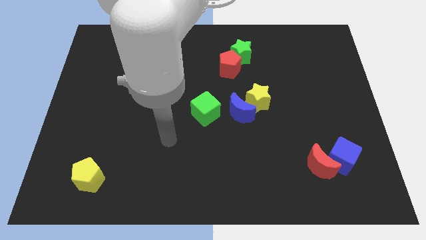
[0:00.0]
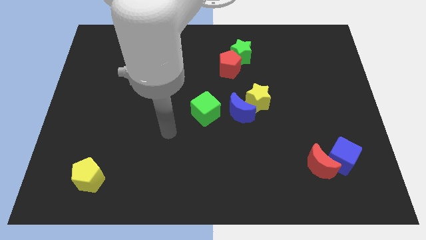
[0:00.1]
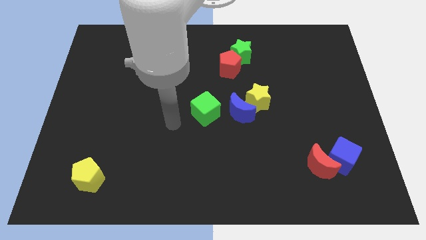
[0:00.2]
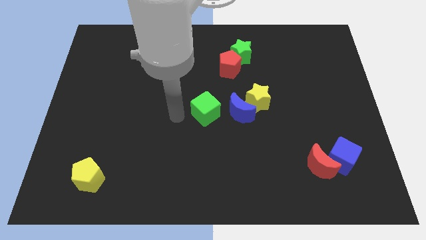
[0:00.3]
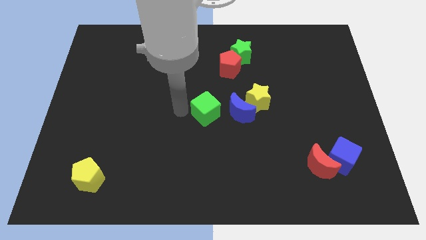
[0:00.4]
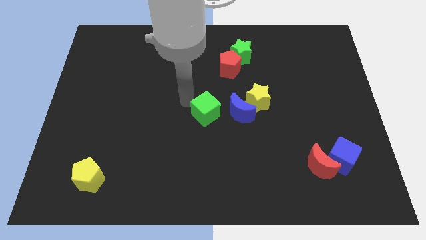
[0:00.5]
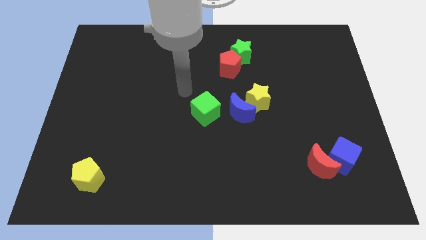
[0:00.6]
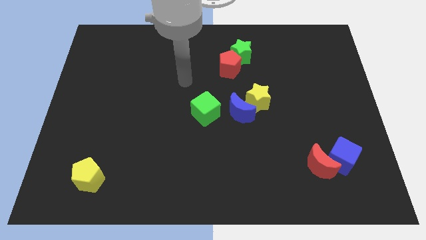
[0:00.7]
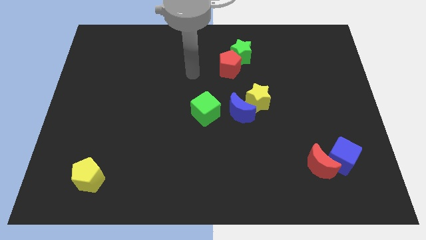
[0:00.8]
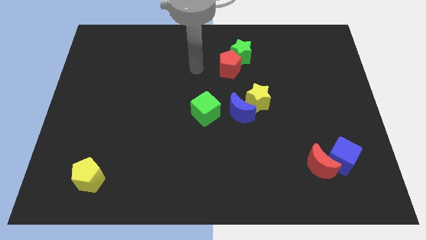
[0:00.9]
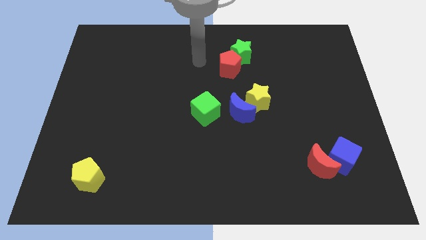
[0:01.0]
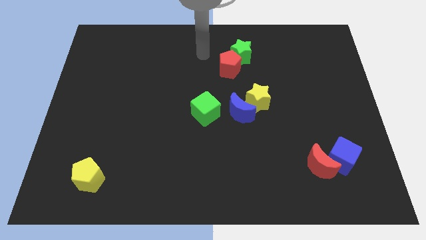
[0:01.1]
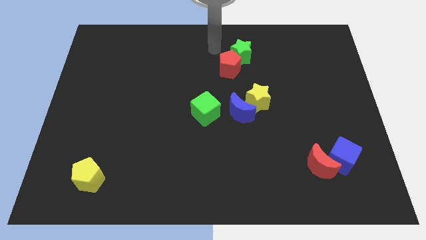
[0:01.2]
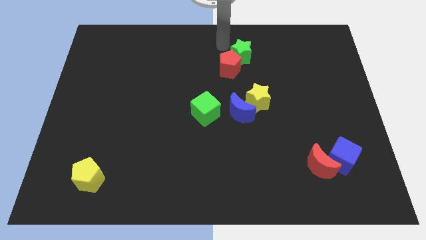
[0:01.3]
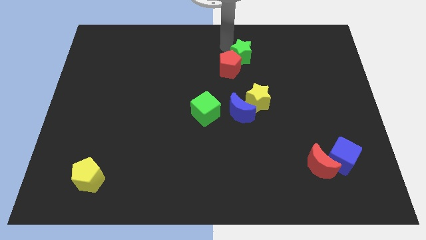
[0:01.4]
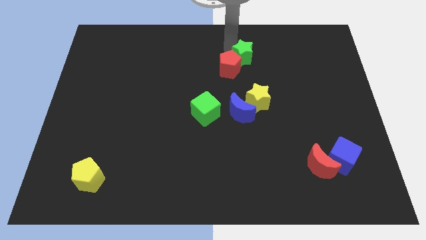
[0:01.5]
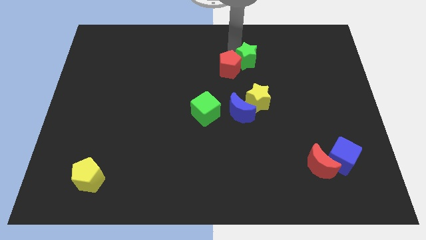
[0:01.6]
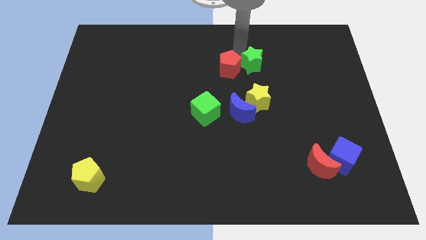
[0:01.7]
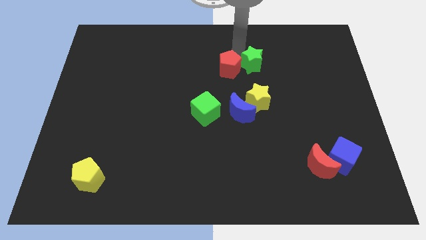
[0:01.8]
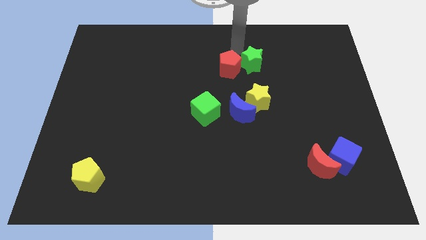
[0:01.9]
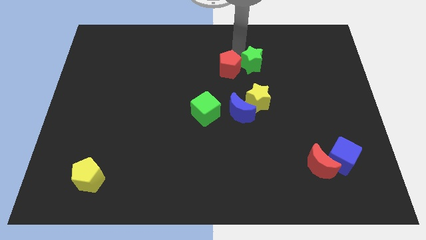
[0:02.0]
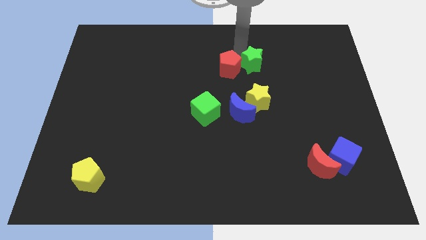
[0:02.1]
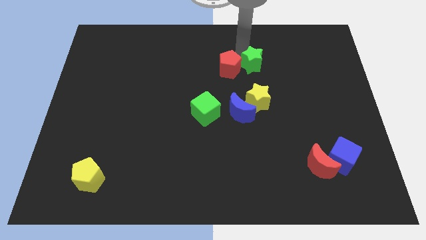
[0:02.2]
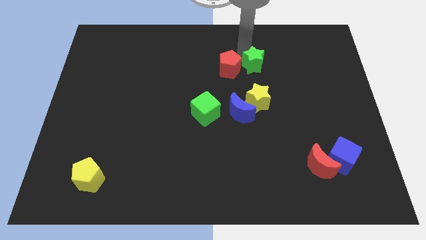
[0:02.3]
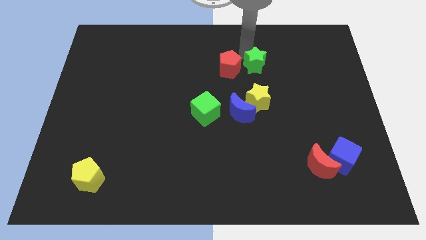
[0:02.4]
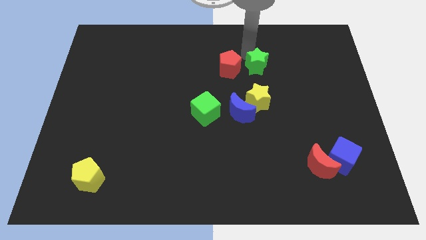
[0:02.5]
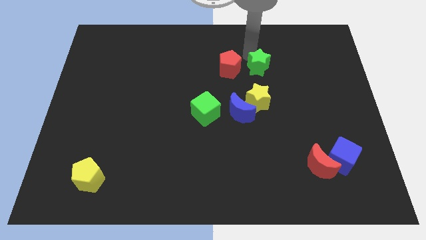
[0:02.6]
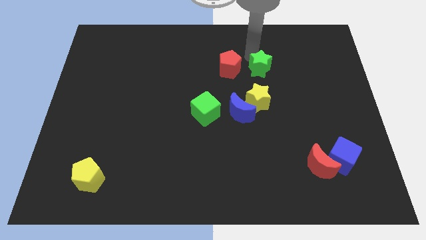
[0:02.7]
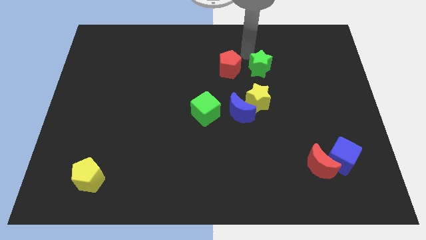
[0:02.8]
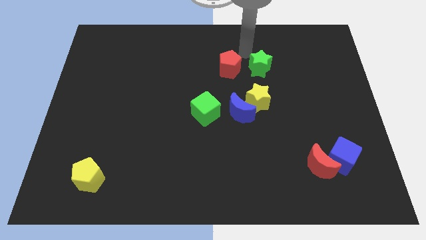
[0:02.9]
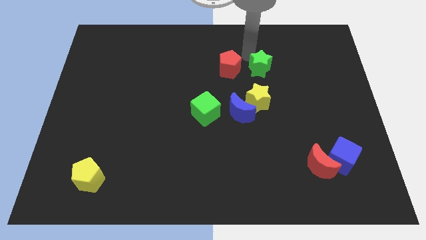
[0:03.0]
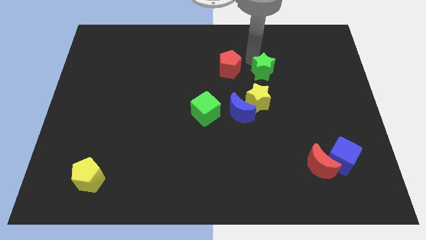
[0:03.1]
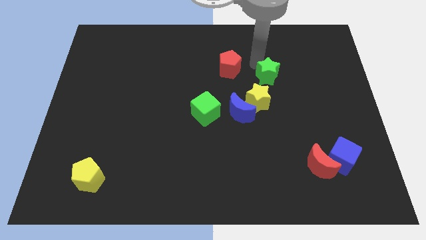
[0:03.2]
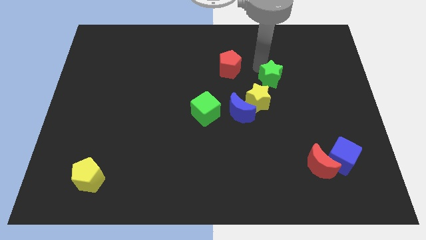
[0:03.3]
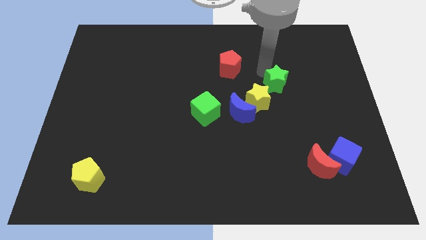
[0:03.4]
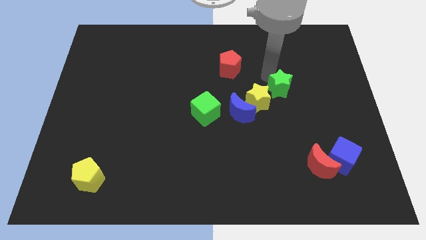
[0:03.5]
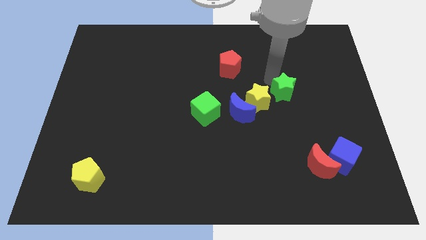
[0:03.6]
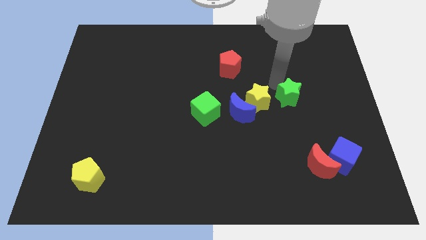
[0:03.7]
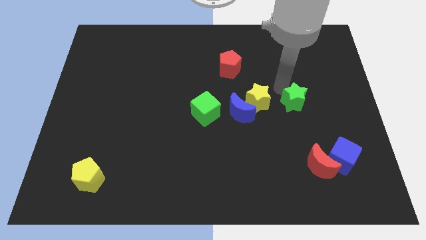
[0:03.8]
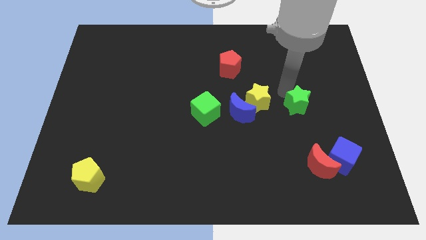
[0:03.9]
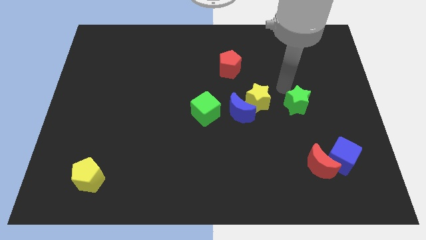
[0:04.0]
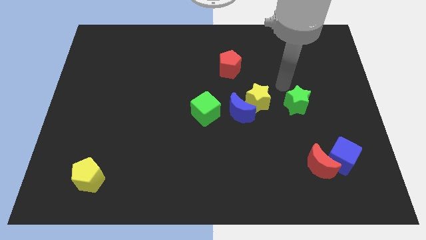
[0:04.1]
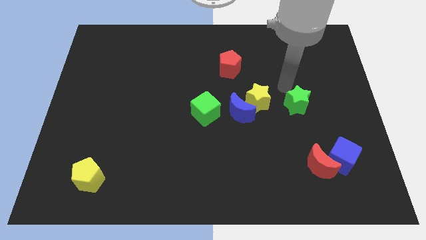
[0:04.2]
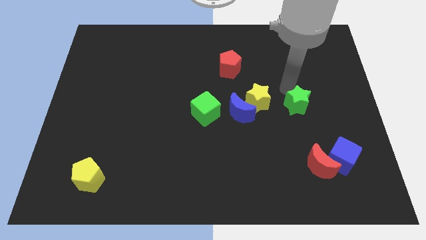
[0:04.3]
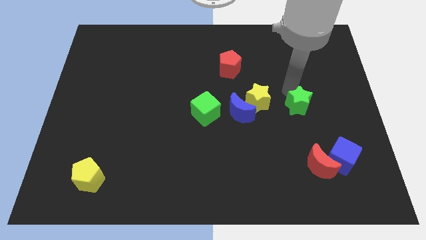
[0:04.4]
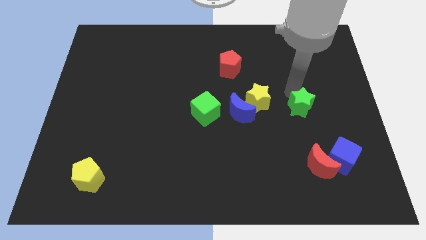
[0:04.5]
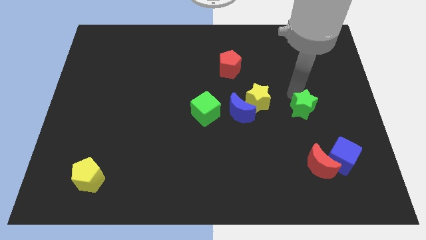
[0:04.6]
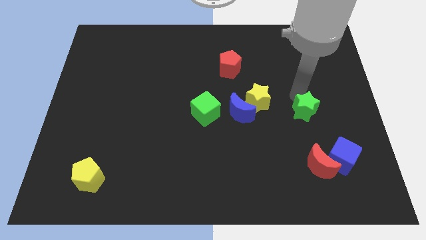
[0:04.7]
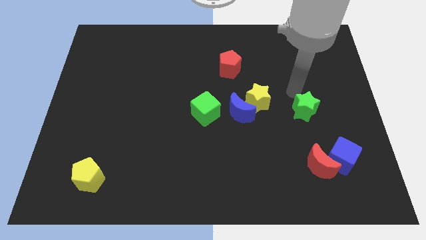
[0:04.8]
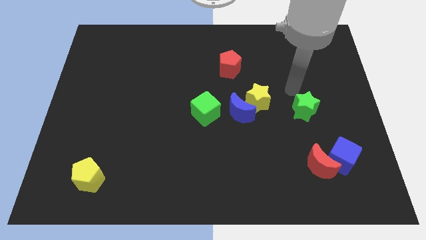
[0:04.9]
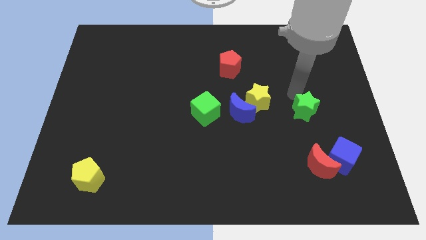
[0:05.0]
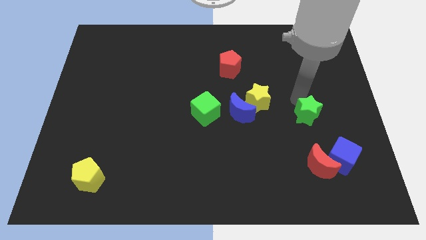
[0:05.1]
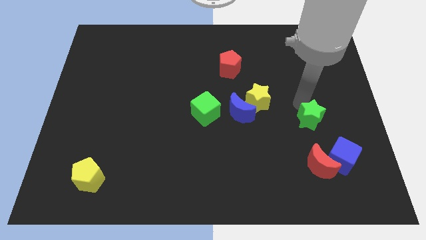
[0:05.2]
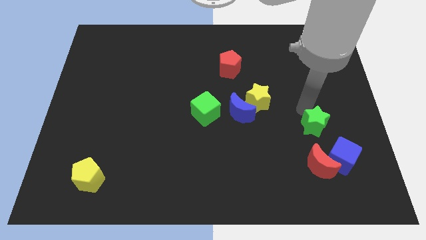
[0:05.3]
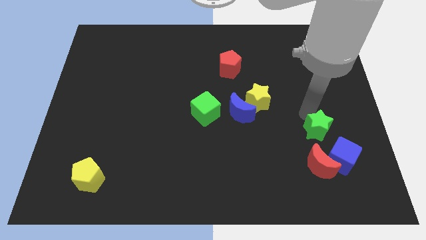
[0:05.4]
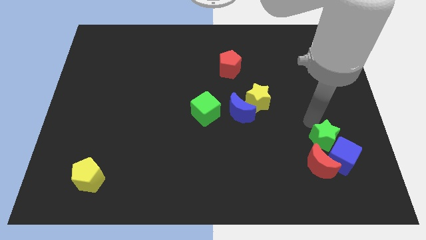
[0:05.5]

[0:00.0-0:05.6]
move the green star towards the blue cube

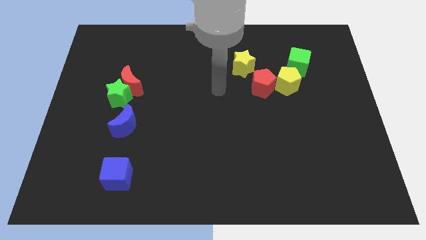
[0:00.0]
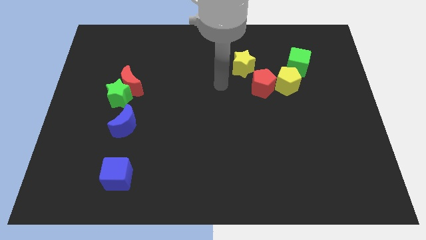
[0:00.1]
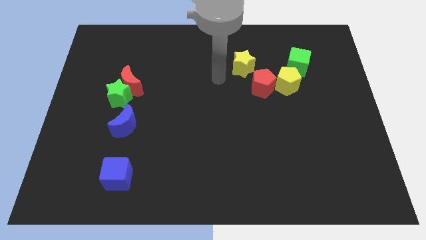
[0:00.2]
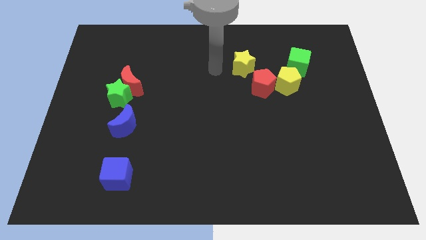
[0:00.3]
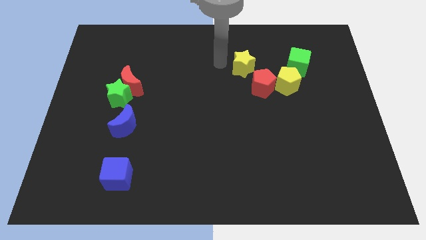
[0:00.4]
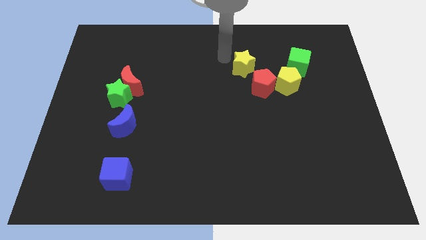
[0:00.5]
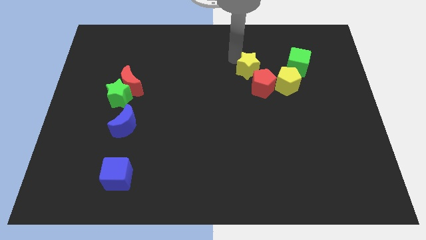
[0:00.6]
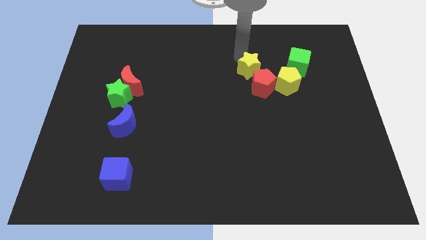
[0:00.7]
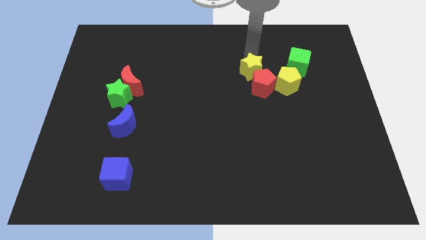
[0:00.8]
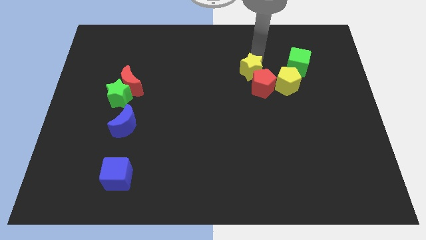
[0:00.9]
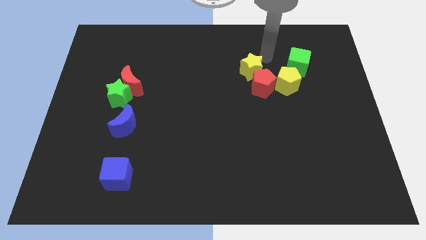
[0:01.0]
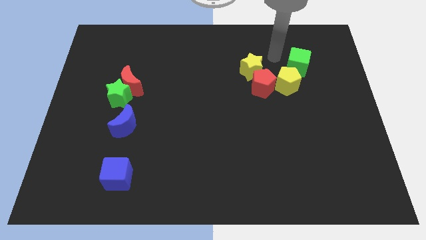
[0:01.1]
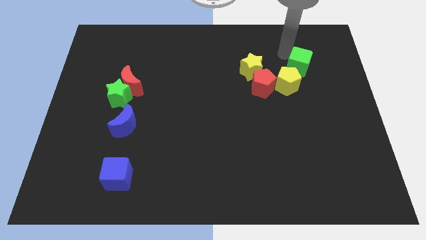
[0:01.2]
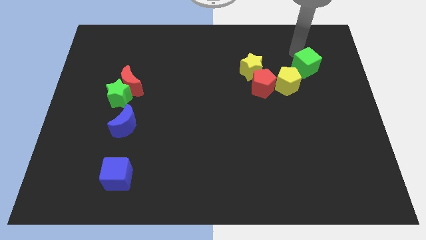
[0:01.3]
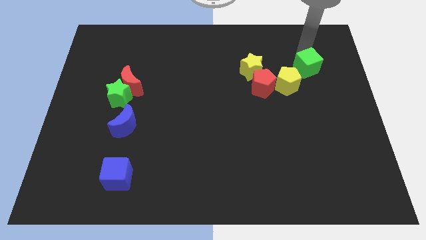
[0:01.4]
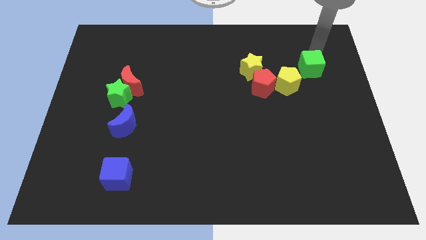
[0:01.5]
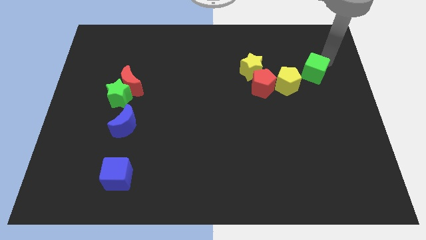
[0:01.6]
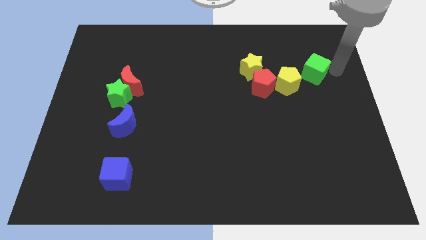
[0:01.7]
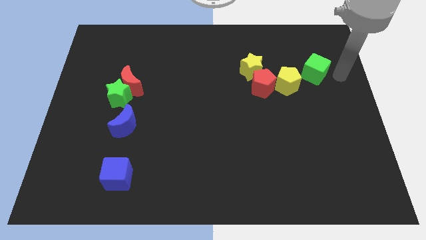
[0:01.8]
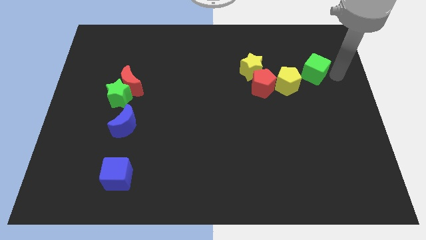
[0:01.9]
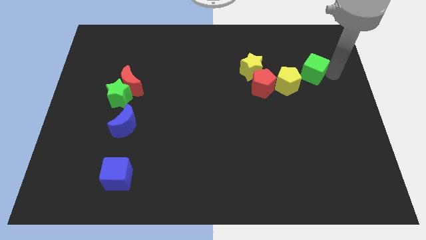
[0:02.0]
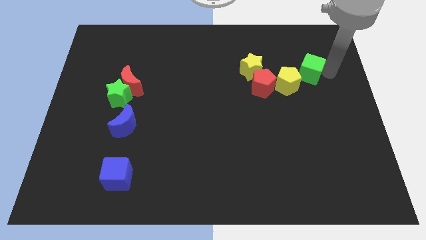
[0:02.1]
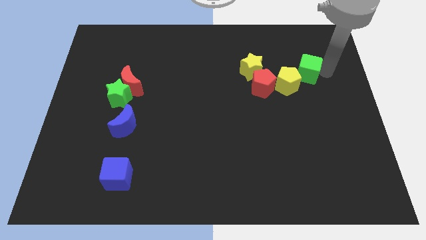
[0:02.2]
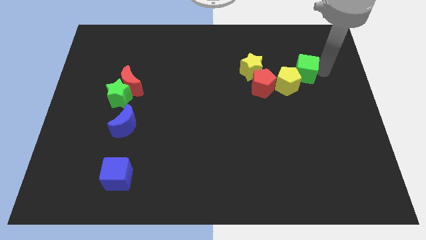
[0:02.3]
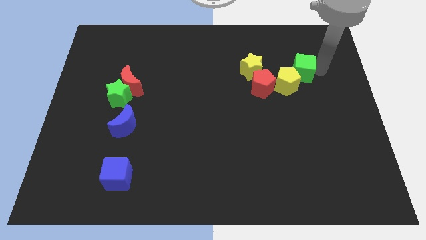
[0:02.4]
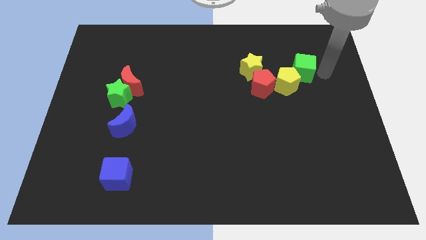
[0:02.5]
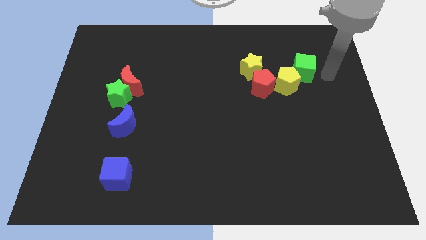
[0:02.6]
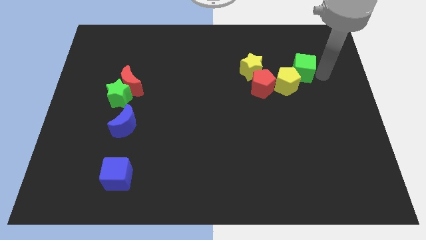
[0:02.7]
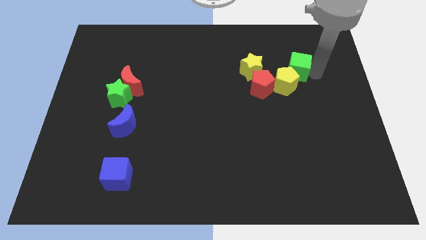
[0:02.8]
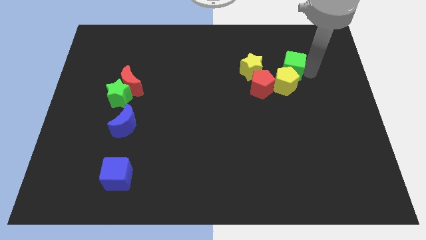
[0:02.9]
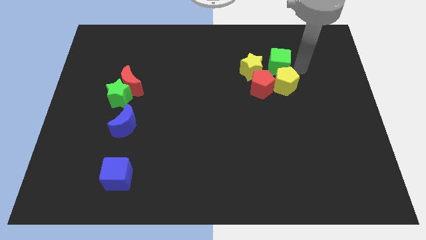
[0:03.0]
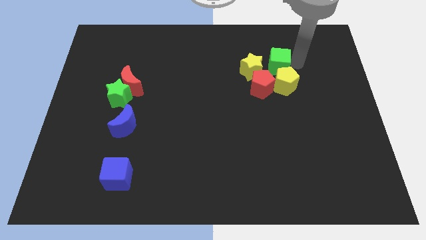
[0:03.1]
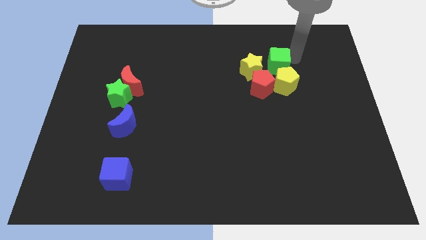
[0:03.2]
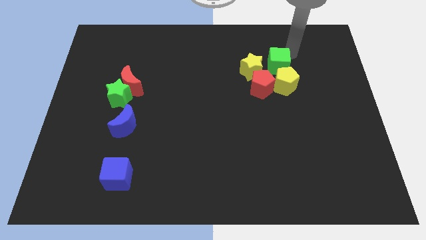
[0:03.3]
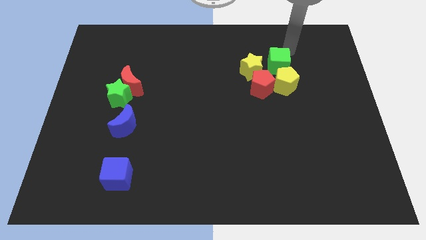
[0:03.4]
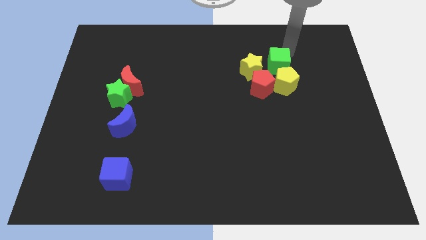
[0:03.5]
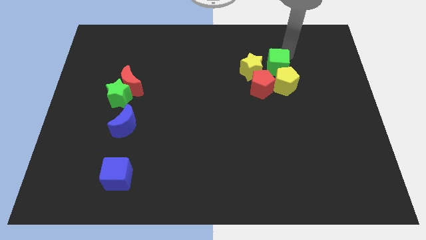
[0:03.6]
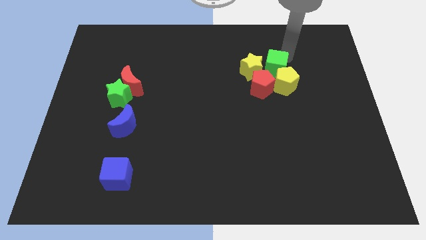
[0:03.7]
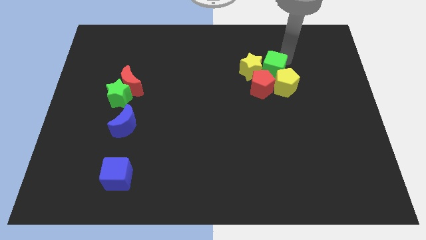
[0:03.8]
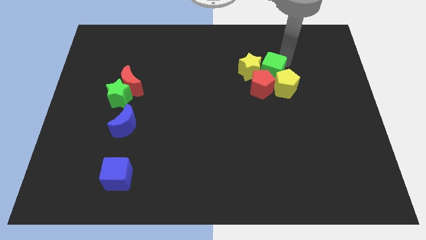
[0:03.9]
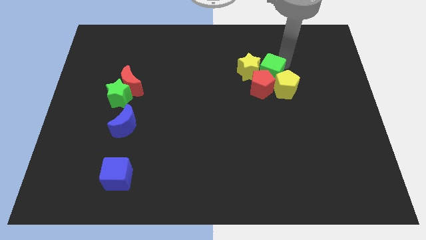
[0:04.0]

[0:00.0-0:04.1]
put the green cube next to the red pentagon
